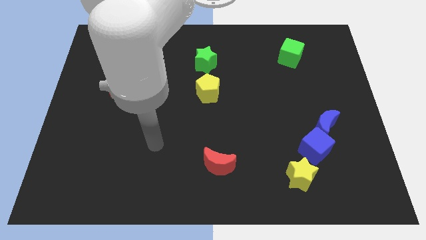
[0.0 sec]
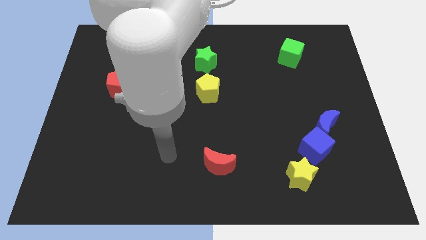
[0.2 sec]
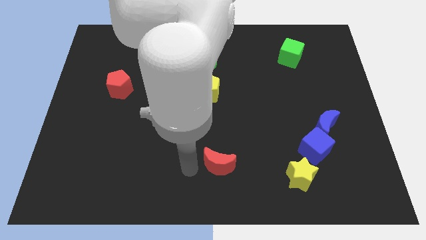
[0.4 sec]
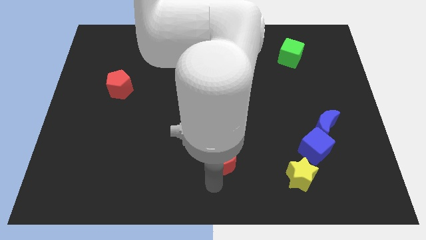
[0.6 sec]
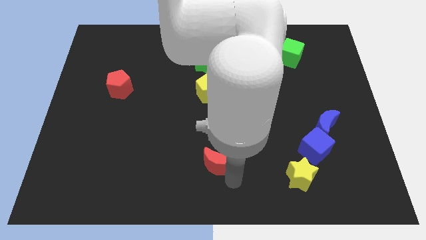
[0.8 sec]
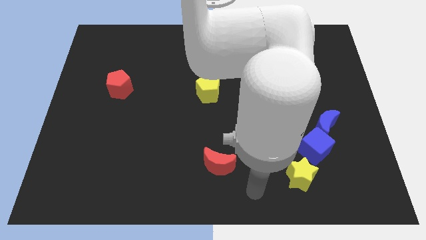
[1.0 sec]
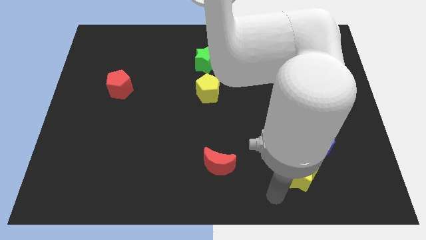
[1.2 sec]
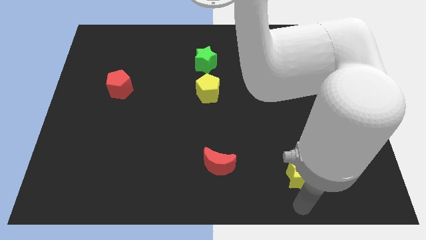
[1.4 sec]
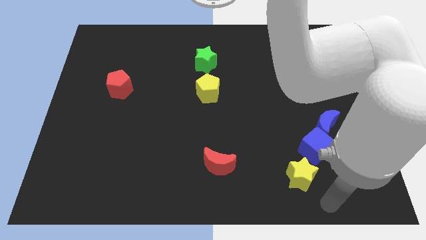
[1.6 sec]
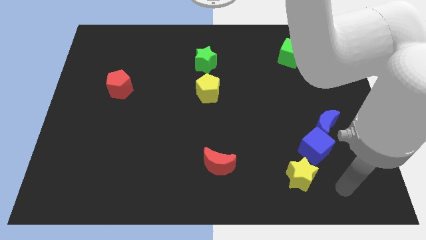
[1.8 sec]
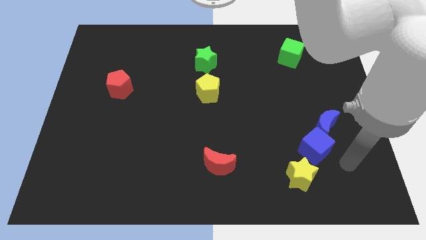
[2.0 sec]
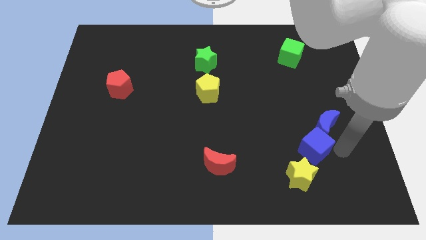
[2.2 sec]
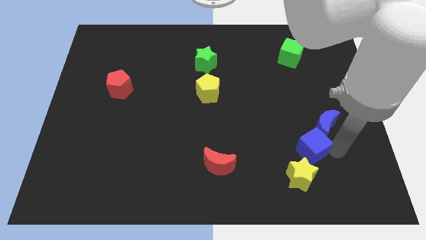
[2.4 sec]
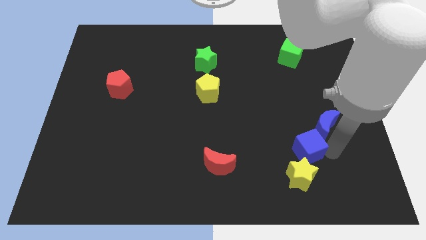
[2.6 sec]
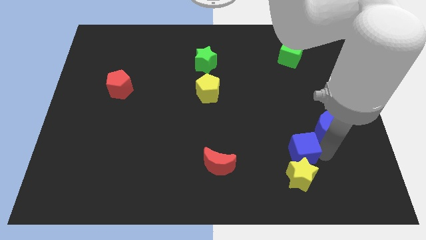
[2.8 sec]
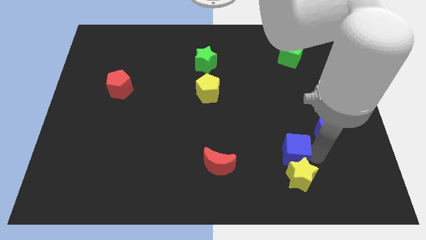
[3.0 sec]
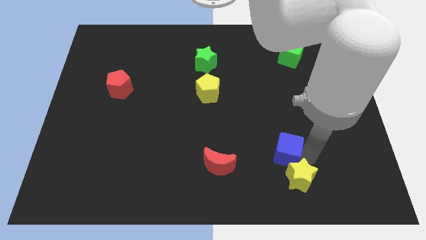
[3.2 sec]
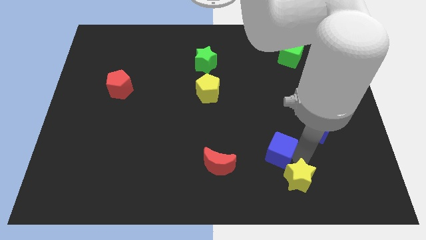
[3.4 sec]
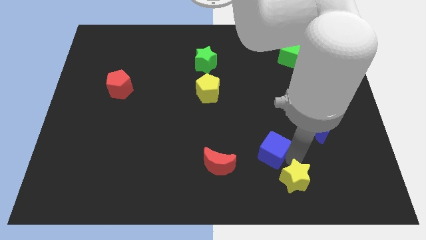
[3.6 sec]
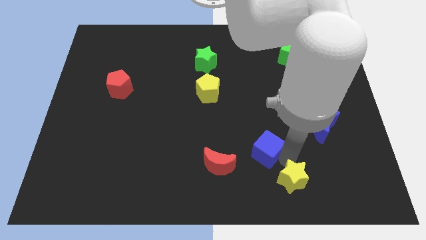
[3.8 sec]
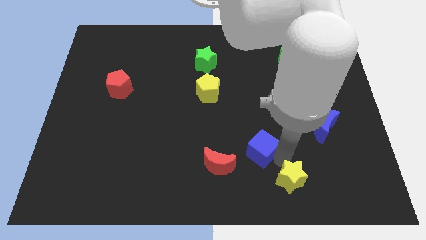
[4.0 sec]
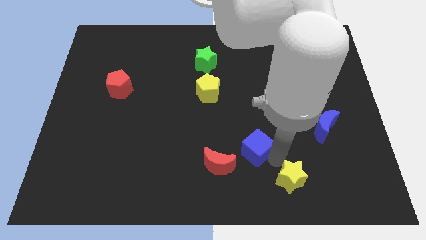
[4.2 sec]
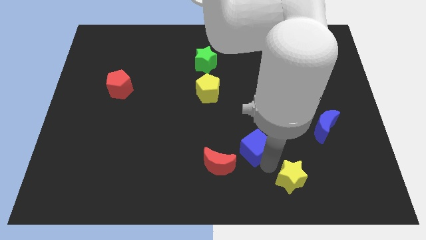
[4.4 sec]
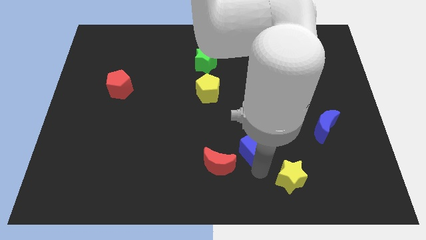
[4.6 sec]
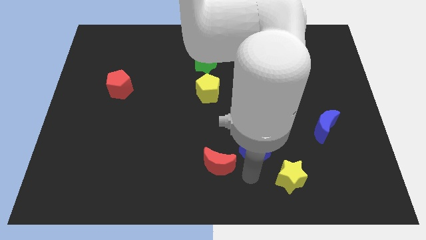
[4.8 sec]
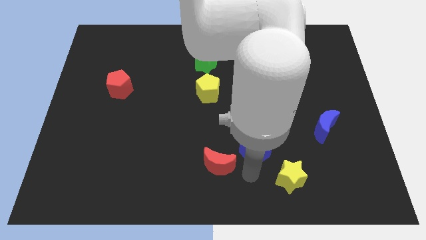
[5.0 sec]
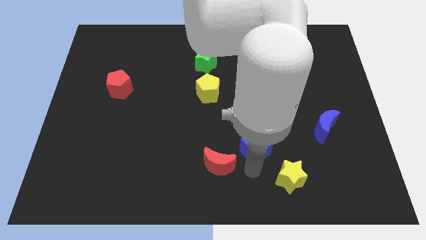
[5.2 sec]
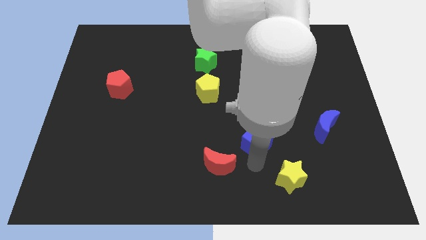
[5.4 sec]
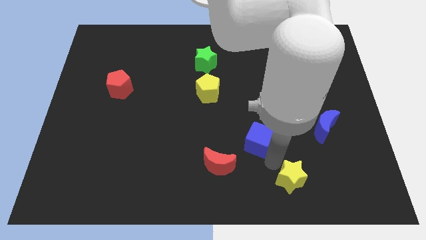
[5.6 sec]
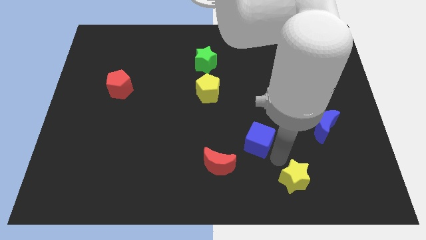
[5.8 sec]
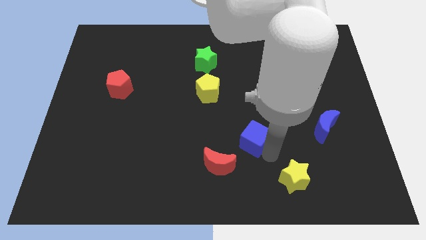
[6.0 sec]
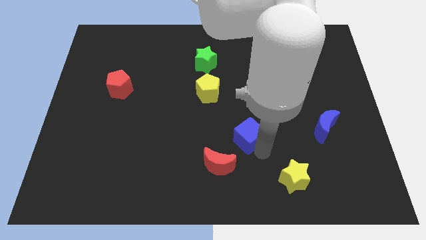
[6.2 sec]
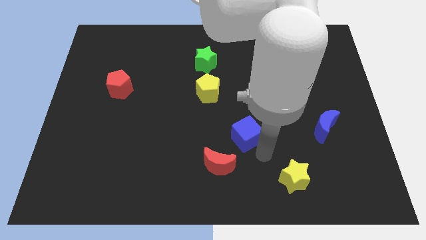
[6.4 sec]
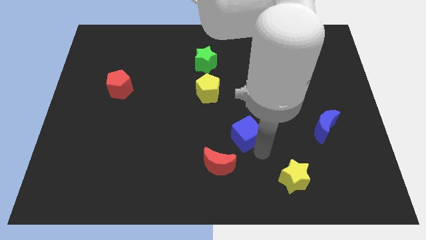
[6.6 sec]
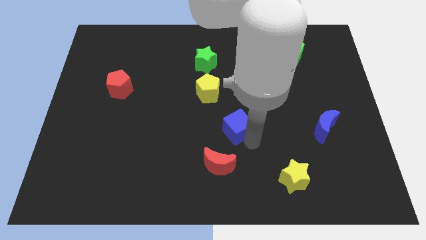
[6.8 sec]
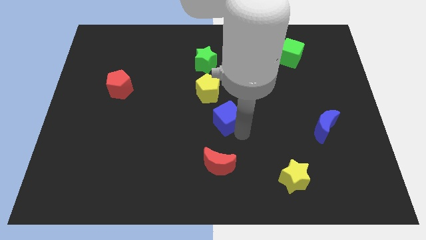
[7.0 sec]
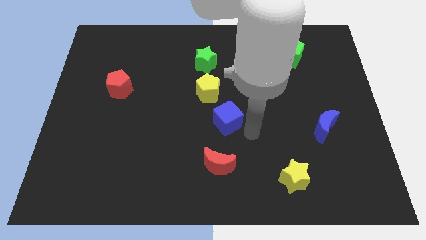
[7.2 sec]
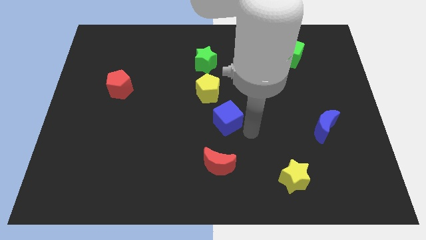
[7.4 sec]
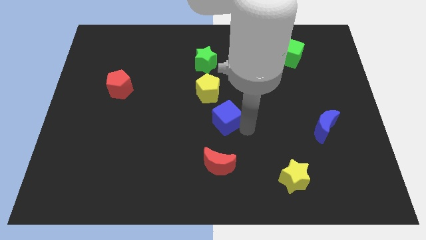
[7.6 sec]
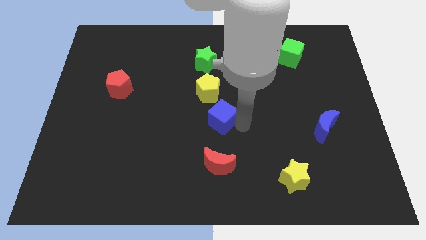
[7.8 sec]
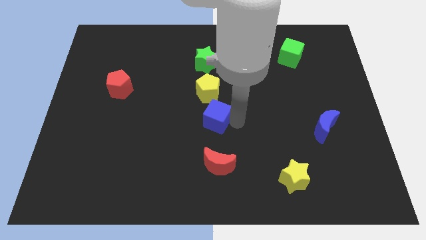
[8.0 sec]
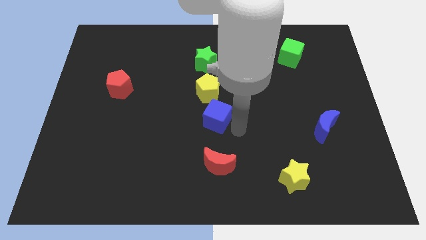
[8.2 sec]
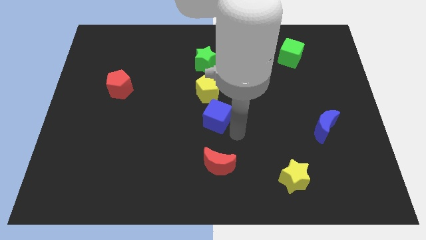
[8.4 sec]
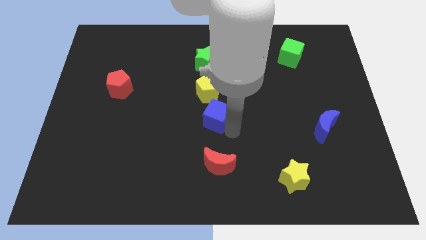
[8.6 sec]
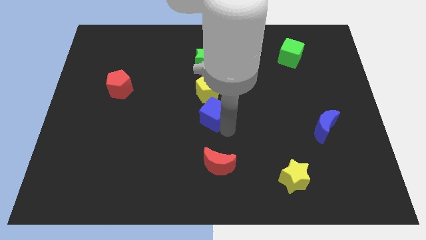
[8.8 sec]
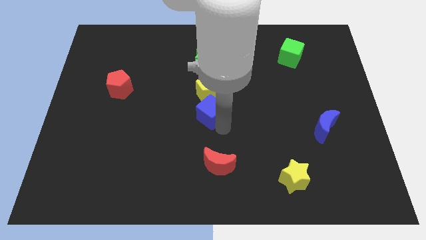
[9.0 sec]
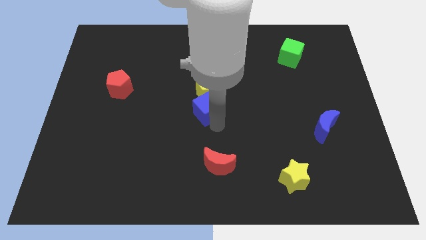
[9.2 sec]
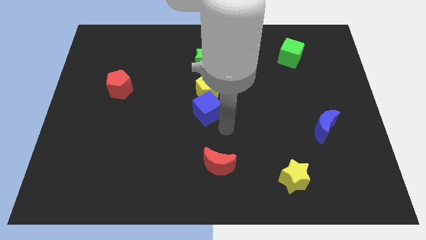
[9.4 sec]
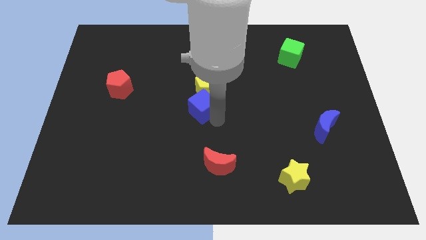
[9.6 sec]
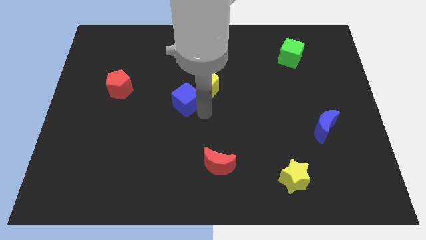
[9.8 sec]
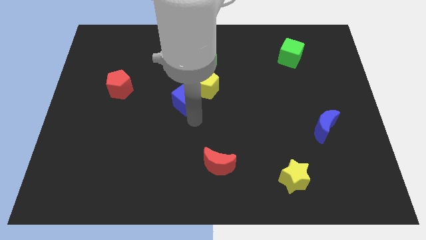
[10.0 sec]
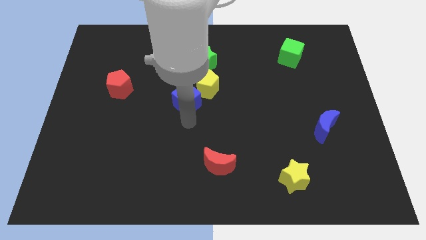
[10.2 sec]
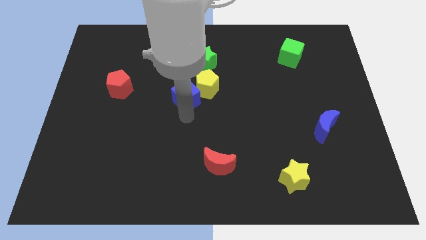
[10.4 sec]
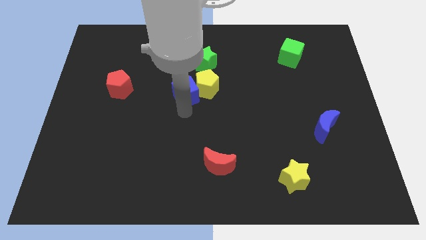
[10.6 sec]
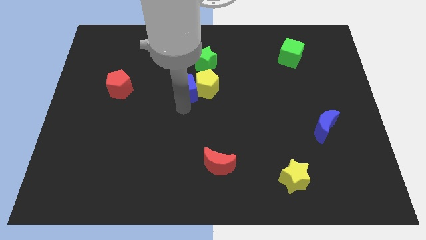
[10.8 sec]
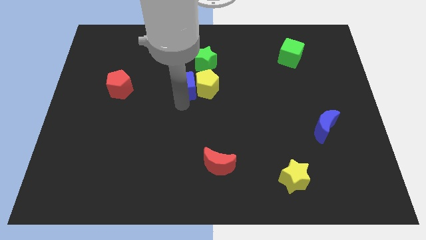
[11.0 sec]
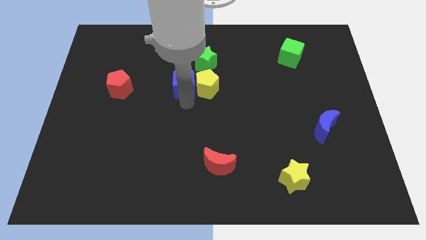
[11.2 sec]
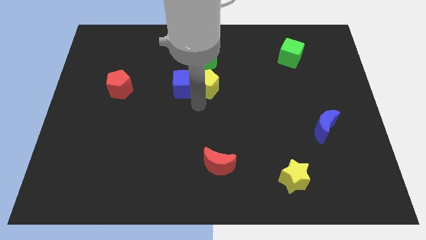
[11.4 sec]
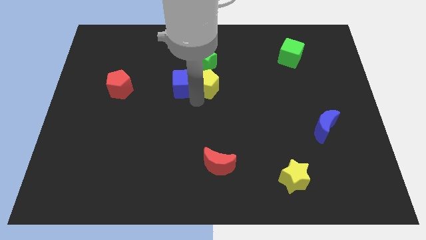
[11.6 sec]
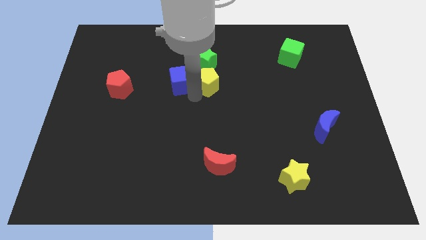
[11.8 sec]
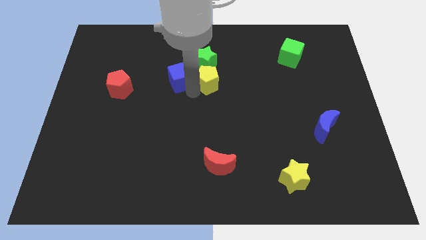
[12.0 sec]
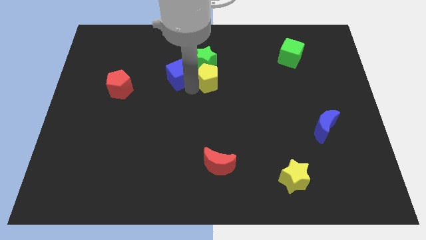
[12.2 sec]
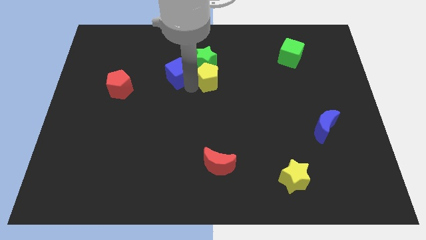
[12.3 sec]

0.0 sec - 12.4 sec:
slide the blue cube left of the green star

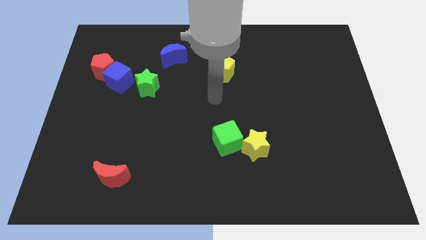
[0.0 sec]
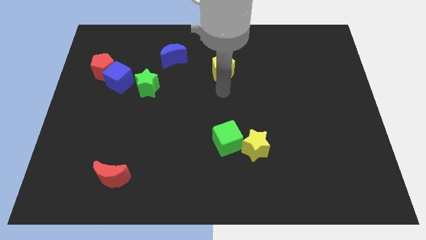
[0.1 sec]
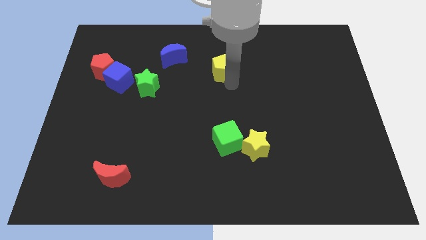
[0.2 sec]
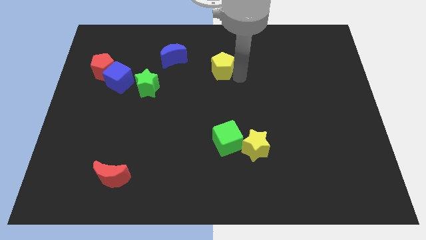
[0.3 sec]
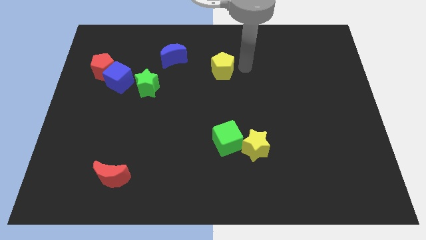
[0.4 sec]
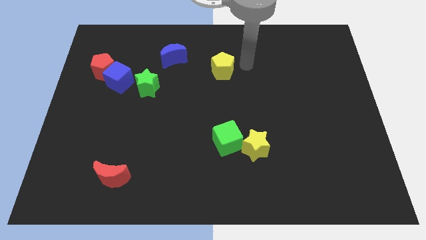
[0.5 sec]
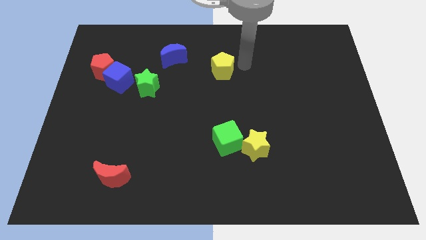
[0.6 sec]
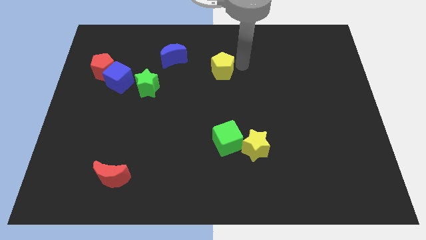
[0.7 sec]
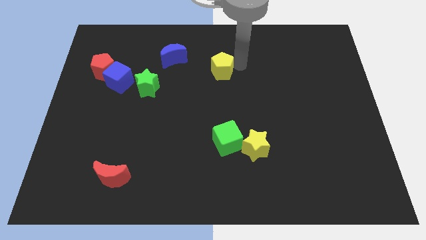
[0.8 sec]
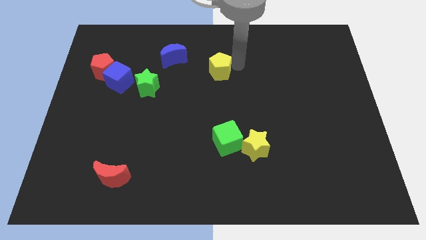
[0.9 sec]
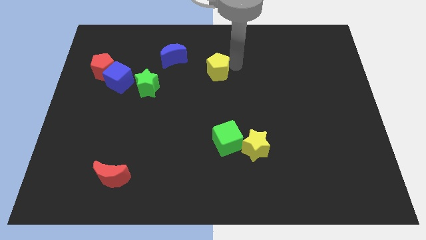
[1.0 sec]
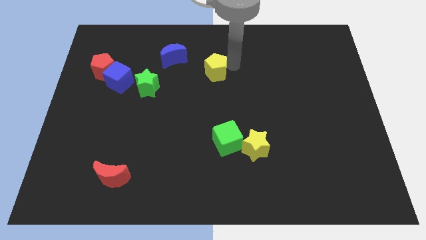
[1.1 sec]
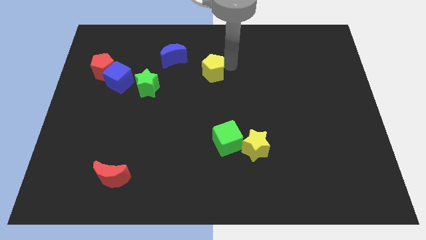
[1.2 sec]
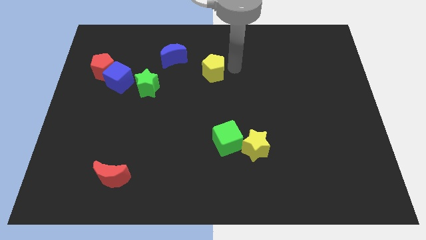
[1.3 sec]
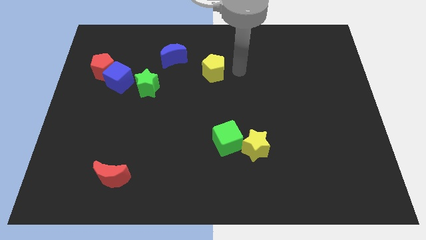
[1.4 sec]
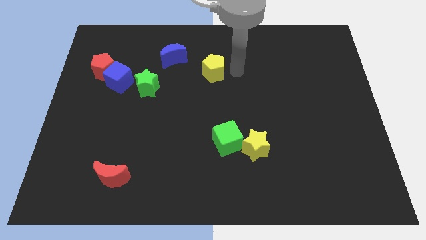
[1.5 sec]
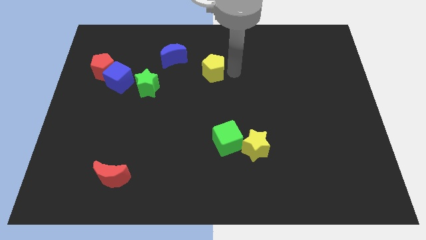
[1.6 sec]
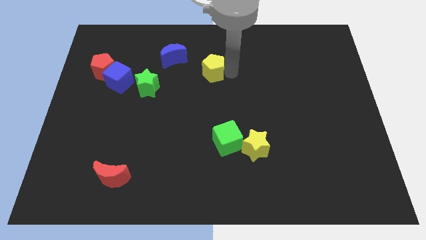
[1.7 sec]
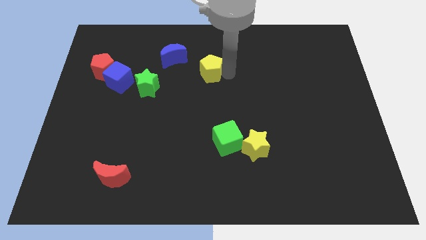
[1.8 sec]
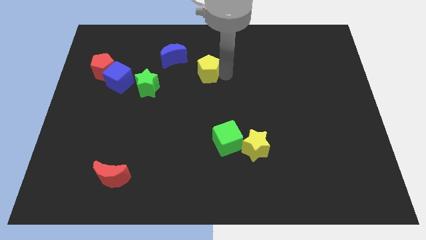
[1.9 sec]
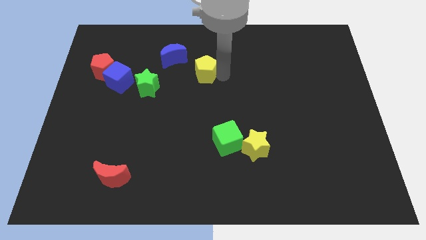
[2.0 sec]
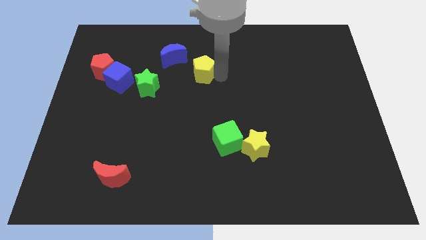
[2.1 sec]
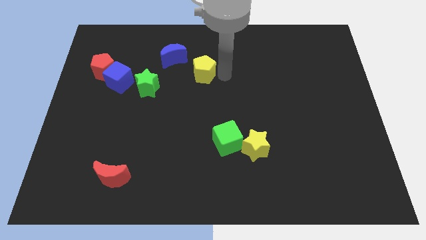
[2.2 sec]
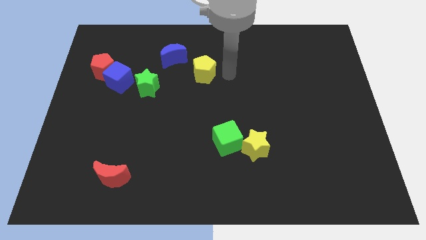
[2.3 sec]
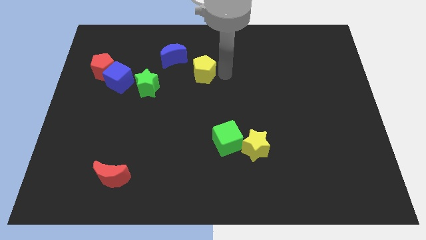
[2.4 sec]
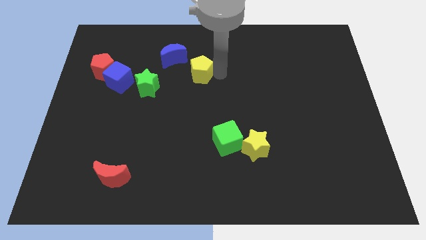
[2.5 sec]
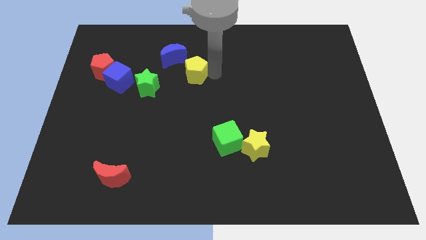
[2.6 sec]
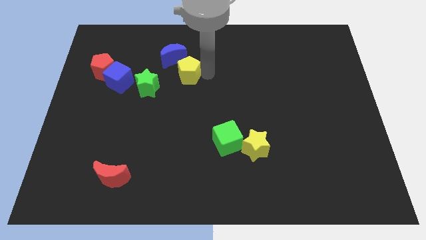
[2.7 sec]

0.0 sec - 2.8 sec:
slide the yellow pentagon diagonally up and to the right of the green star
